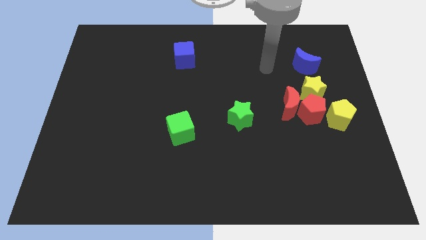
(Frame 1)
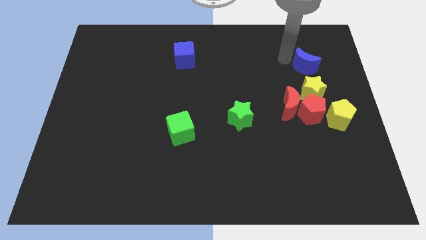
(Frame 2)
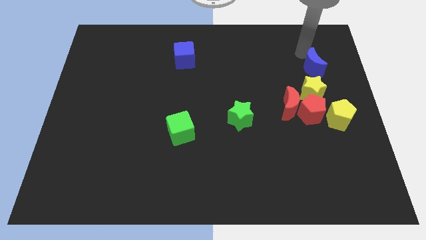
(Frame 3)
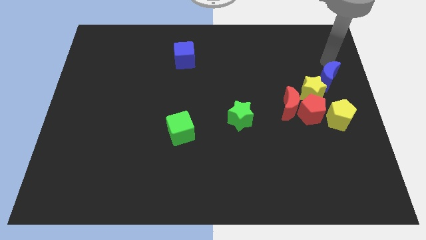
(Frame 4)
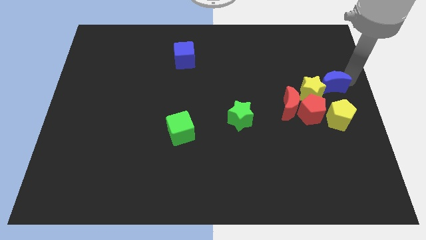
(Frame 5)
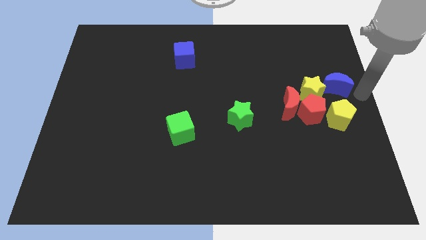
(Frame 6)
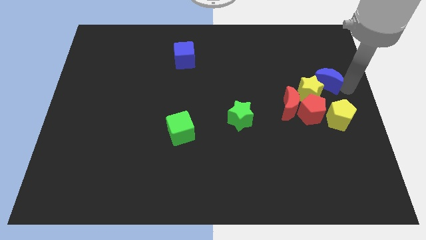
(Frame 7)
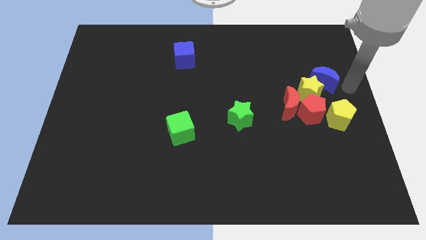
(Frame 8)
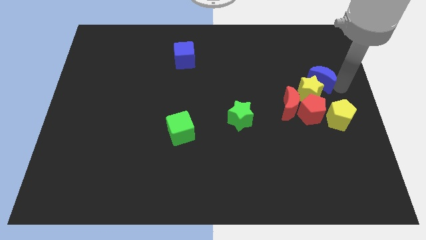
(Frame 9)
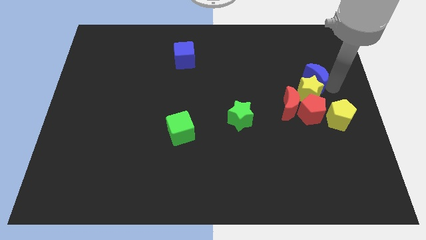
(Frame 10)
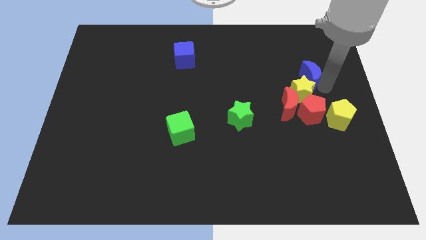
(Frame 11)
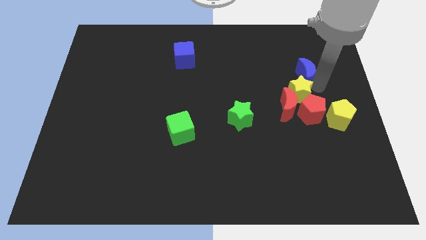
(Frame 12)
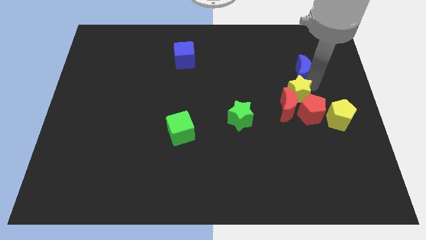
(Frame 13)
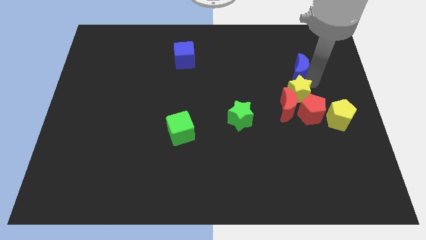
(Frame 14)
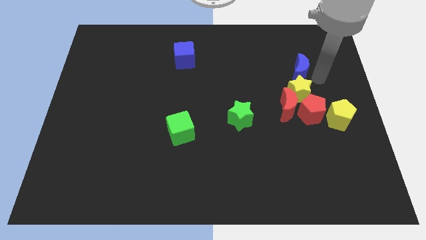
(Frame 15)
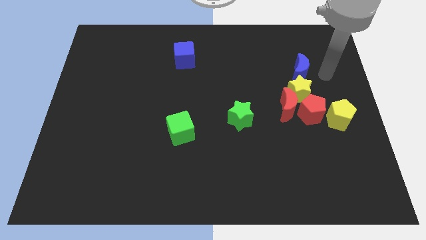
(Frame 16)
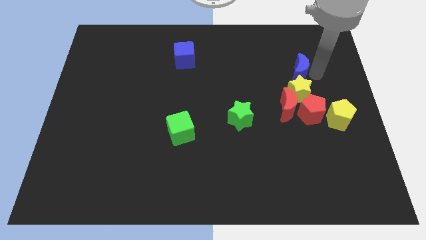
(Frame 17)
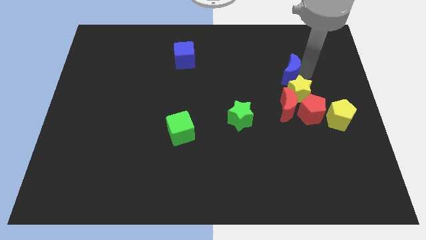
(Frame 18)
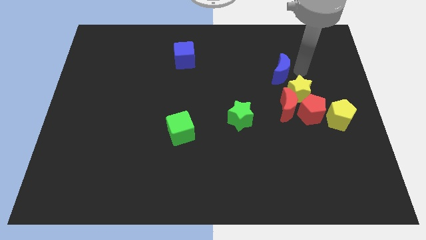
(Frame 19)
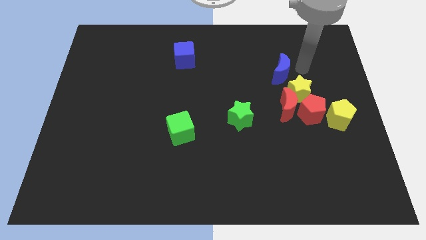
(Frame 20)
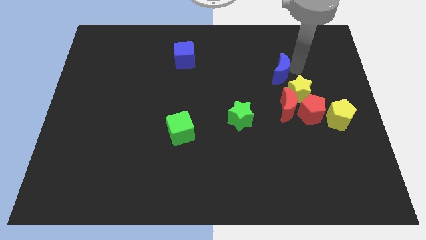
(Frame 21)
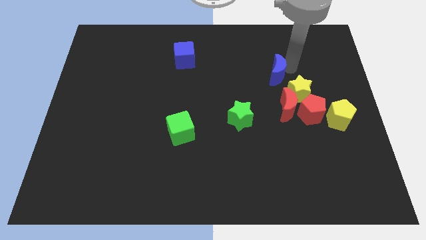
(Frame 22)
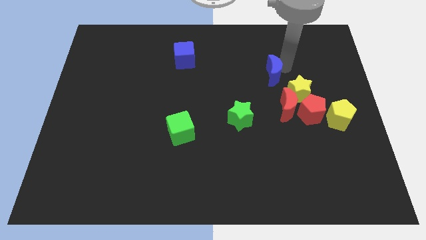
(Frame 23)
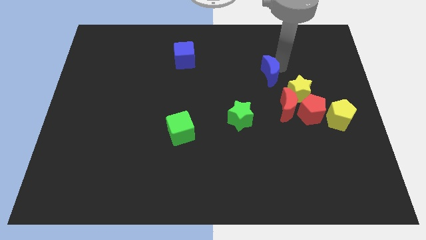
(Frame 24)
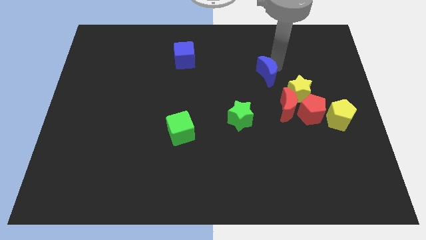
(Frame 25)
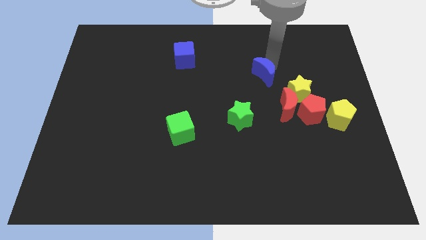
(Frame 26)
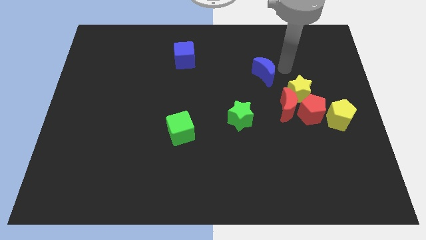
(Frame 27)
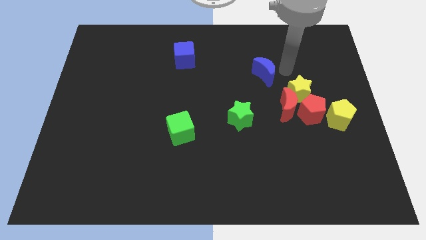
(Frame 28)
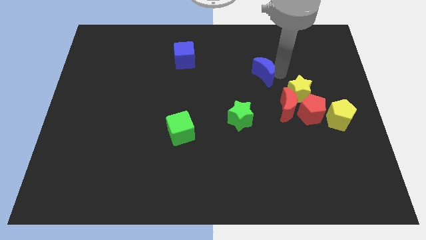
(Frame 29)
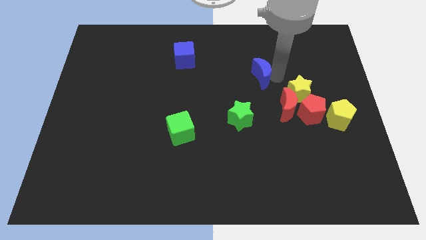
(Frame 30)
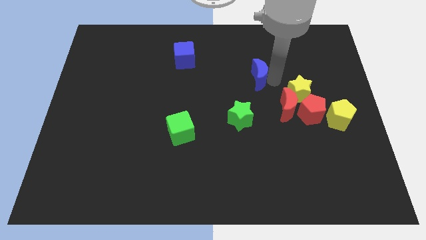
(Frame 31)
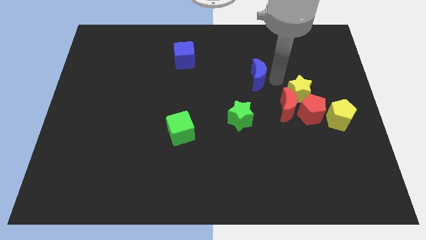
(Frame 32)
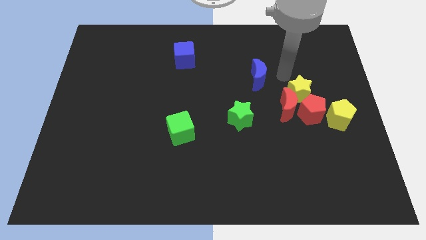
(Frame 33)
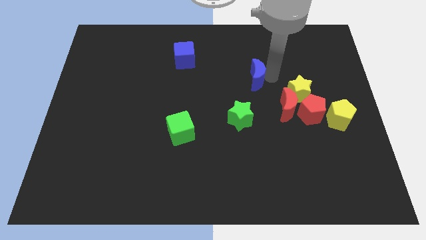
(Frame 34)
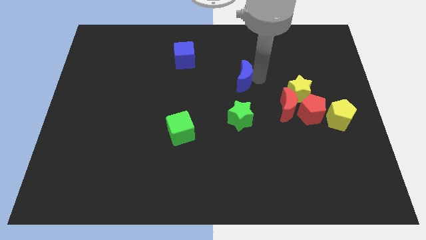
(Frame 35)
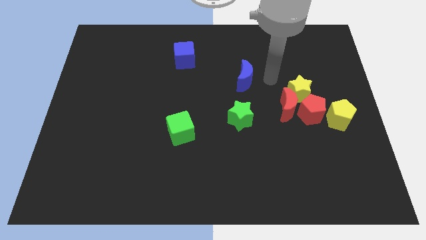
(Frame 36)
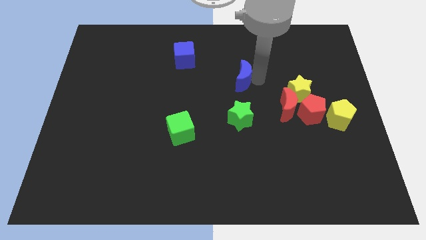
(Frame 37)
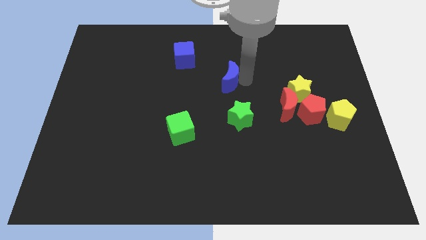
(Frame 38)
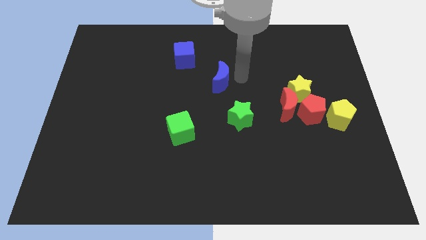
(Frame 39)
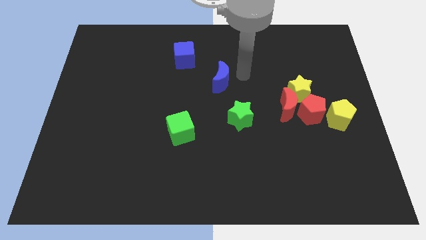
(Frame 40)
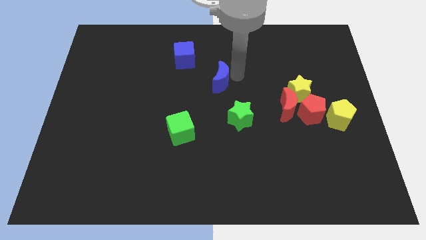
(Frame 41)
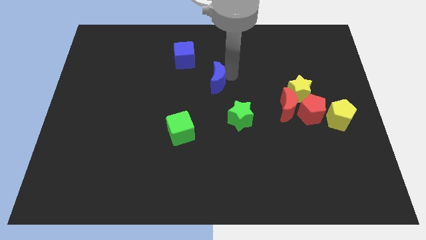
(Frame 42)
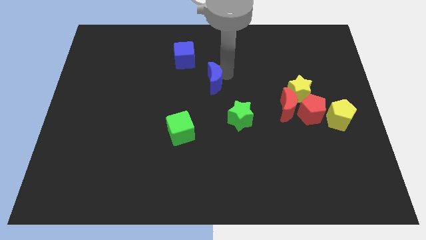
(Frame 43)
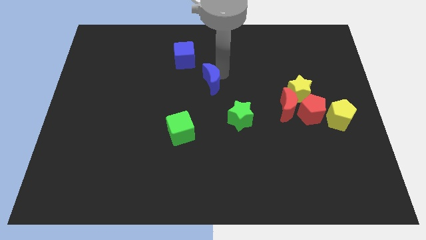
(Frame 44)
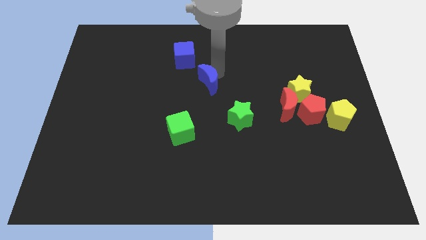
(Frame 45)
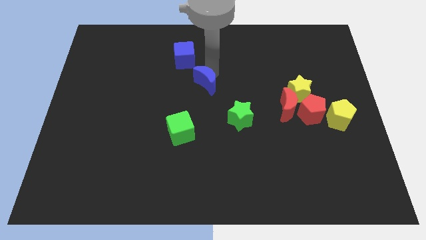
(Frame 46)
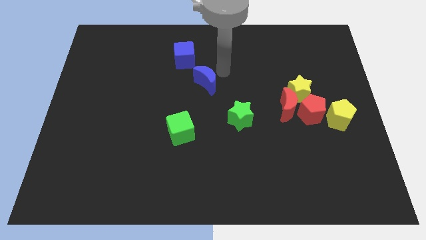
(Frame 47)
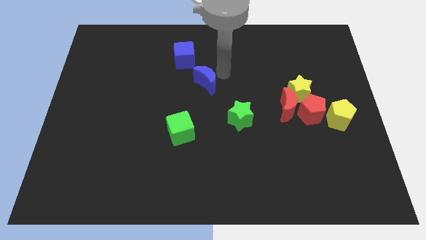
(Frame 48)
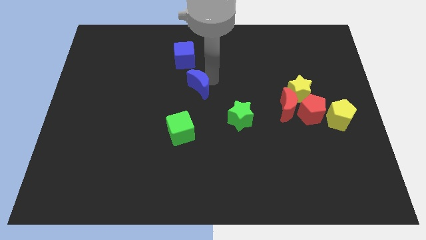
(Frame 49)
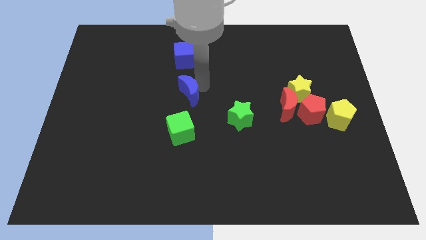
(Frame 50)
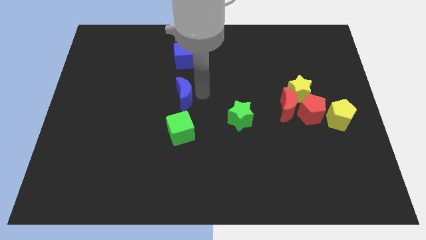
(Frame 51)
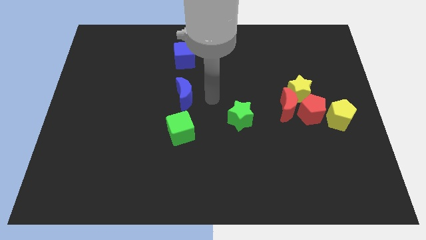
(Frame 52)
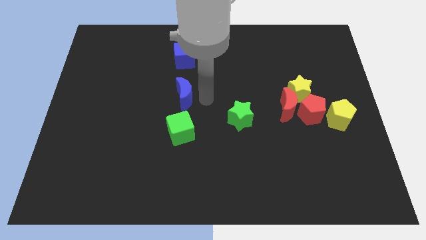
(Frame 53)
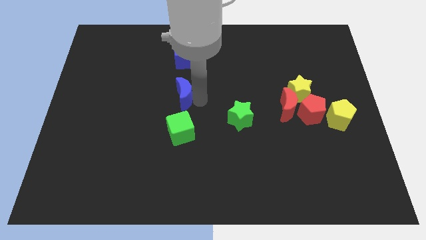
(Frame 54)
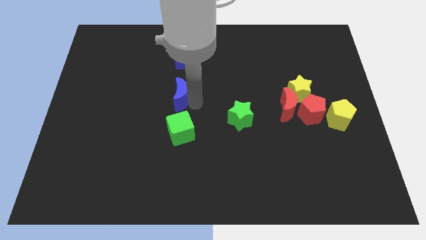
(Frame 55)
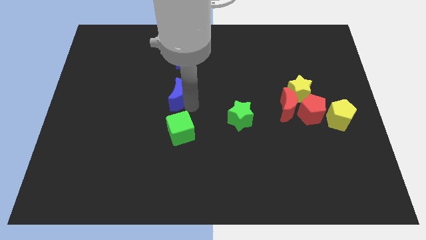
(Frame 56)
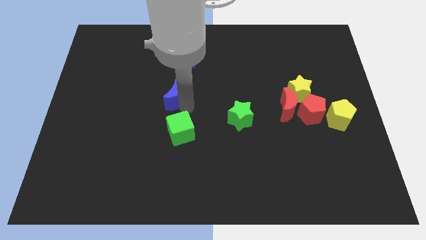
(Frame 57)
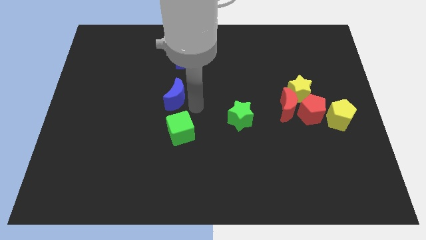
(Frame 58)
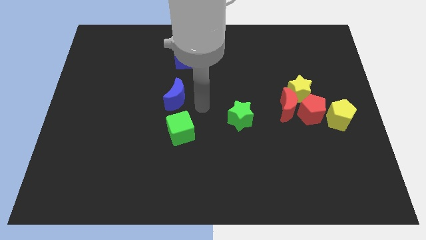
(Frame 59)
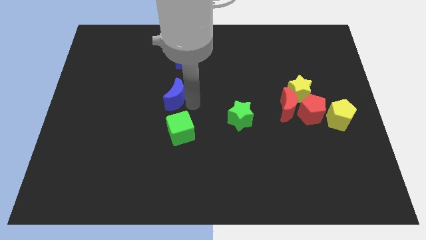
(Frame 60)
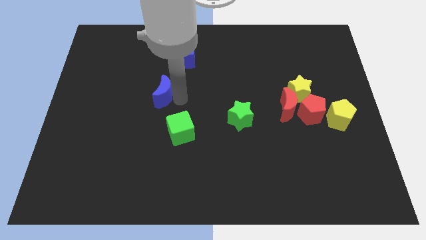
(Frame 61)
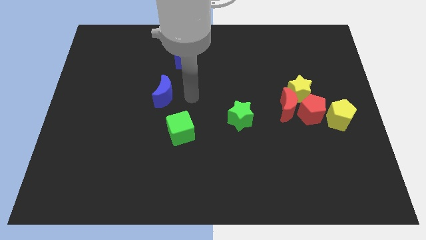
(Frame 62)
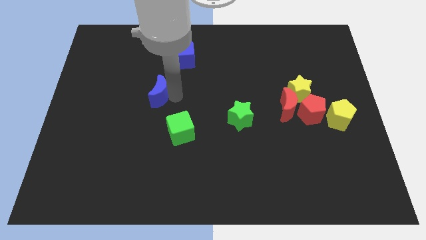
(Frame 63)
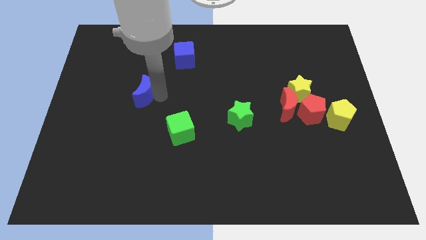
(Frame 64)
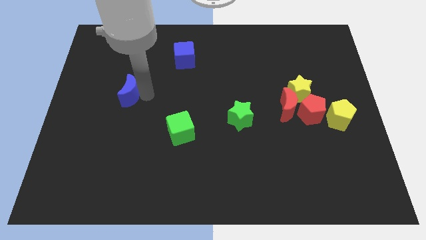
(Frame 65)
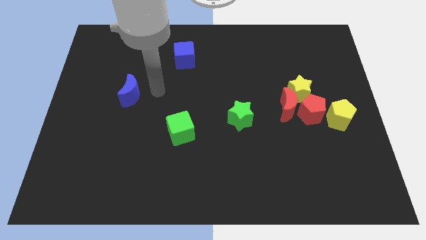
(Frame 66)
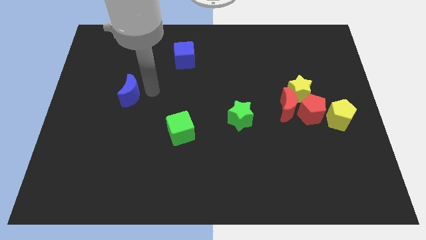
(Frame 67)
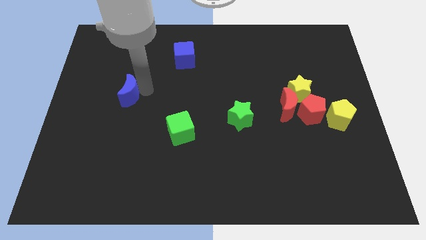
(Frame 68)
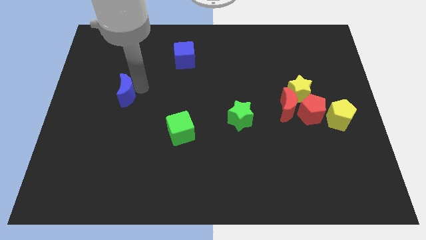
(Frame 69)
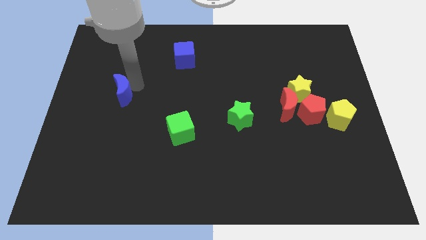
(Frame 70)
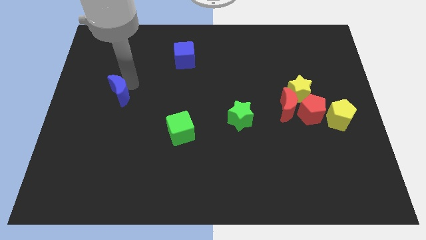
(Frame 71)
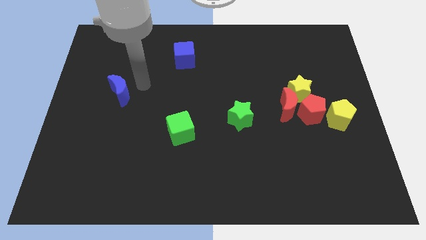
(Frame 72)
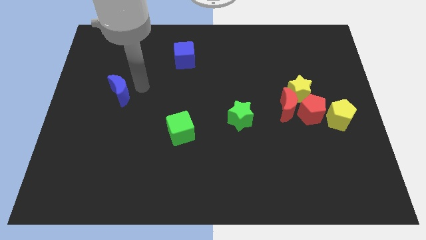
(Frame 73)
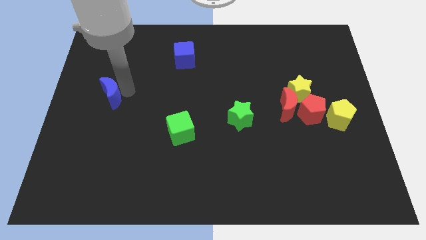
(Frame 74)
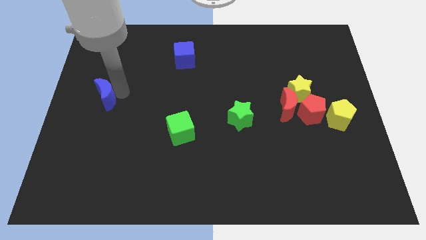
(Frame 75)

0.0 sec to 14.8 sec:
put the blue moon to the left side of the board
